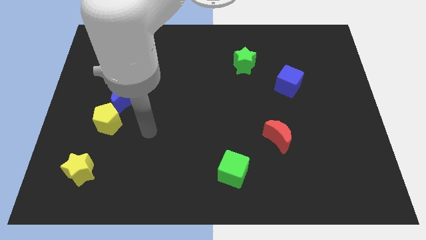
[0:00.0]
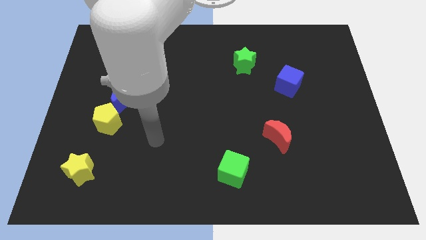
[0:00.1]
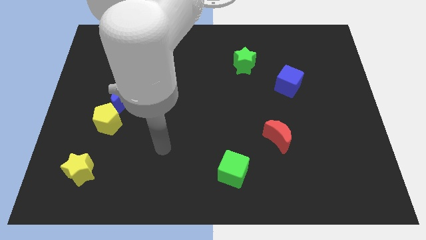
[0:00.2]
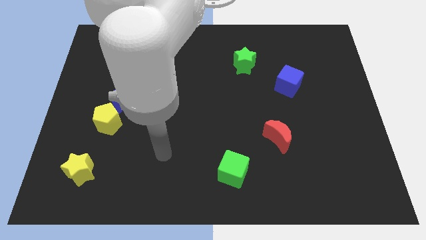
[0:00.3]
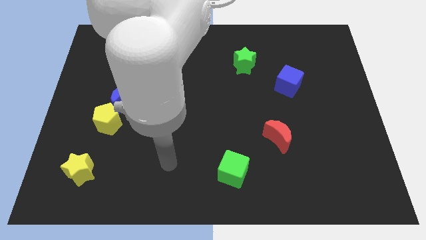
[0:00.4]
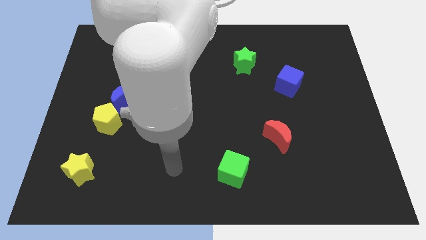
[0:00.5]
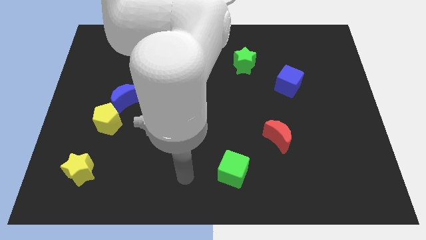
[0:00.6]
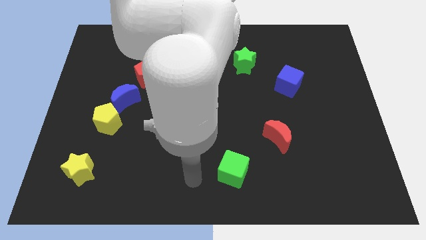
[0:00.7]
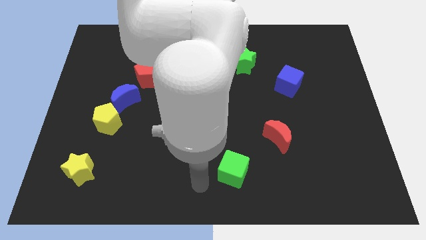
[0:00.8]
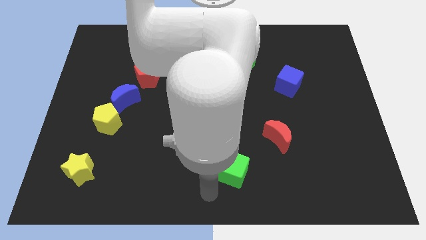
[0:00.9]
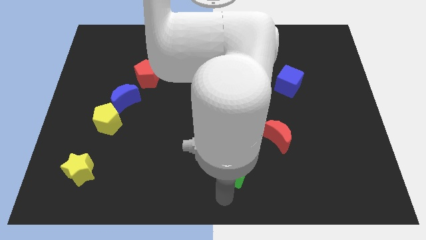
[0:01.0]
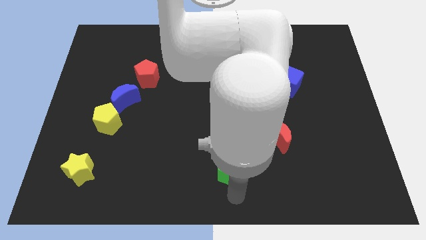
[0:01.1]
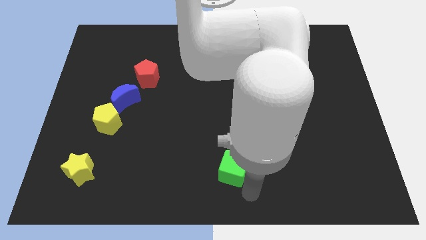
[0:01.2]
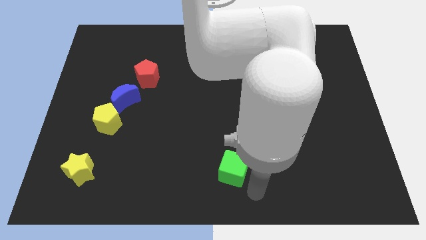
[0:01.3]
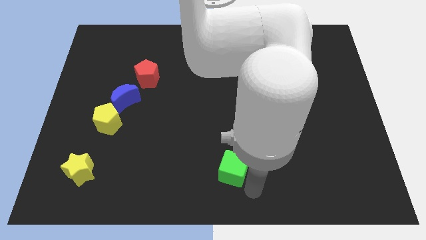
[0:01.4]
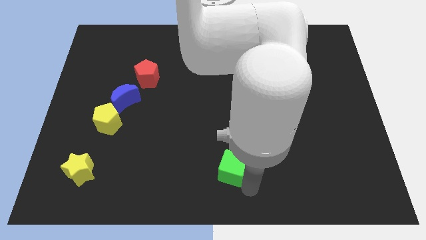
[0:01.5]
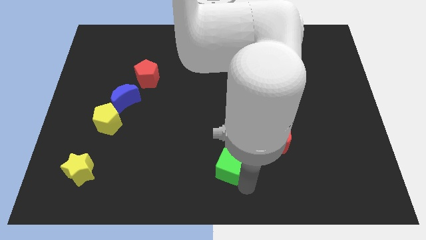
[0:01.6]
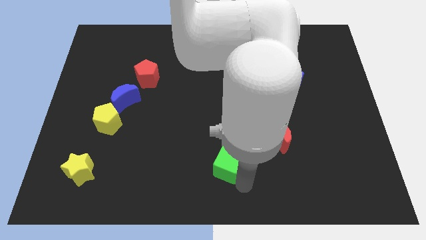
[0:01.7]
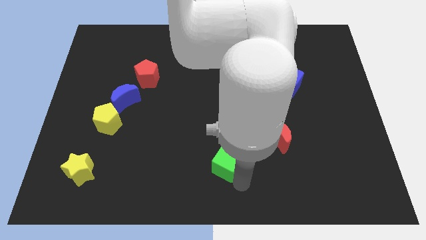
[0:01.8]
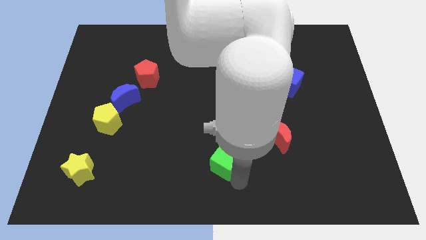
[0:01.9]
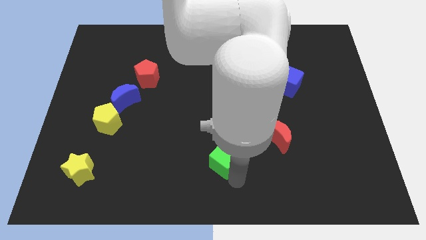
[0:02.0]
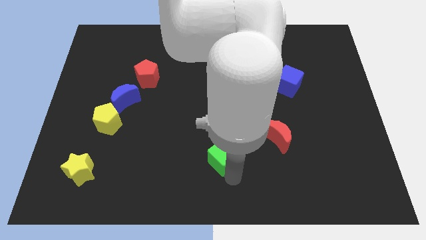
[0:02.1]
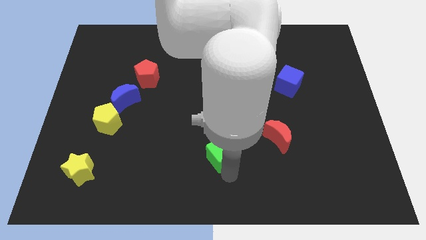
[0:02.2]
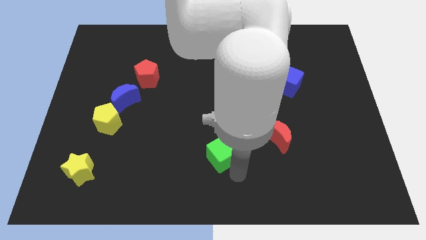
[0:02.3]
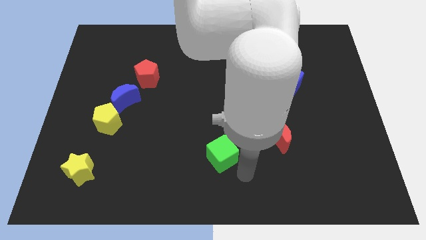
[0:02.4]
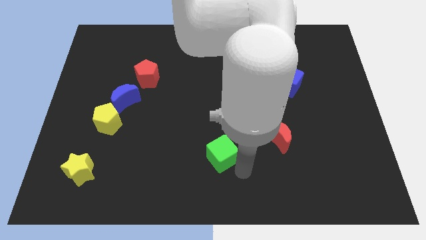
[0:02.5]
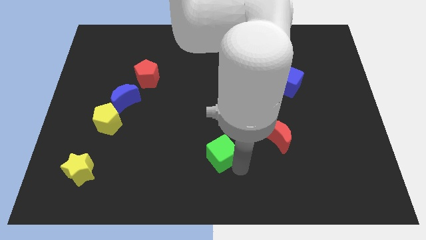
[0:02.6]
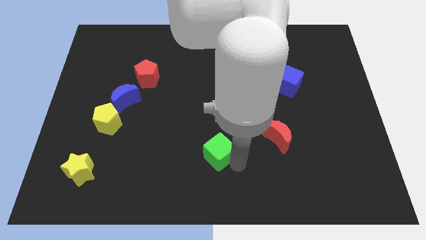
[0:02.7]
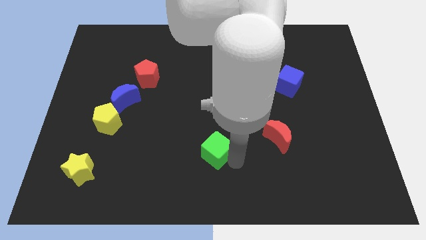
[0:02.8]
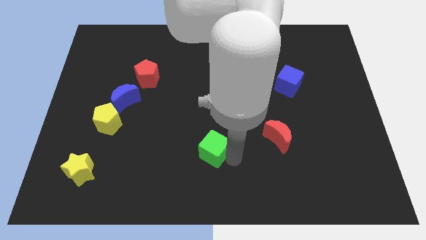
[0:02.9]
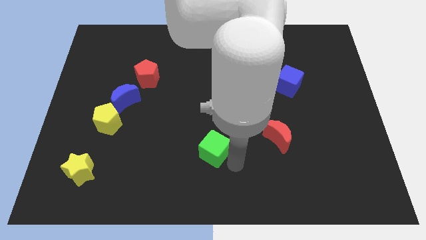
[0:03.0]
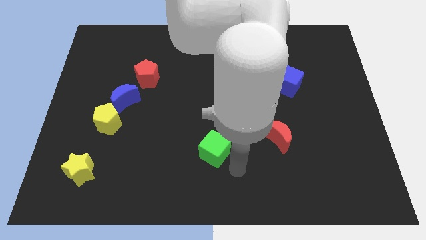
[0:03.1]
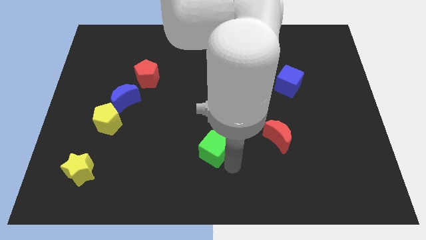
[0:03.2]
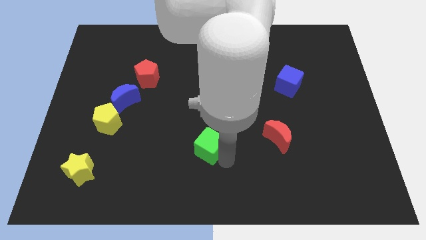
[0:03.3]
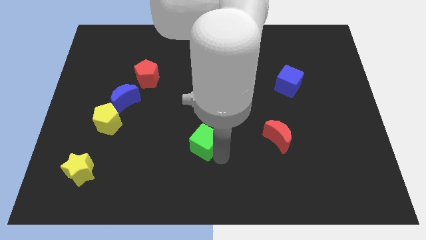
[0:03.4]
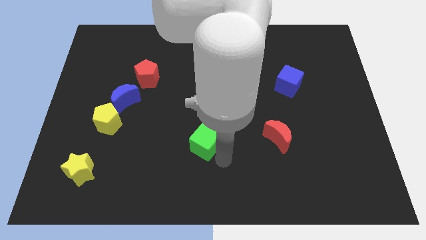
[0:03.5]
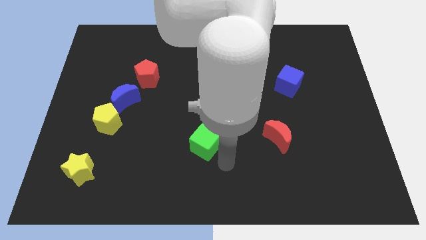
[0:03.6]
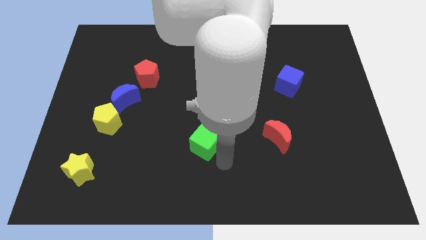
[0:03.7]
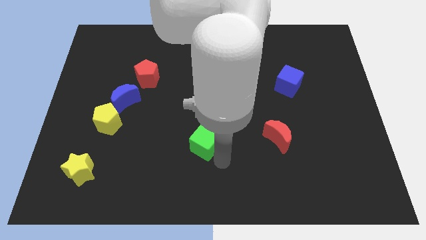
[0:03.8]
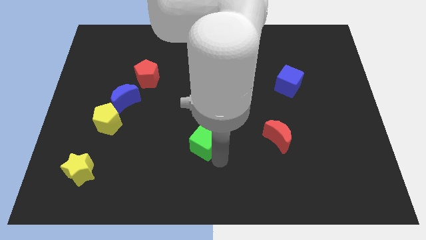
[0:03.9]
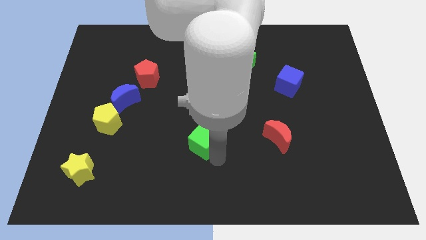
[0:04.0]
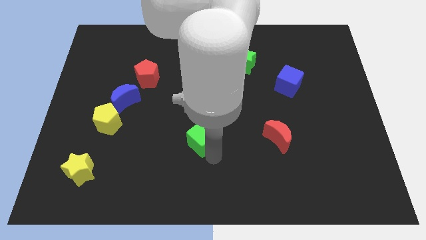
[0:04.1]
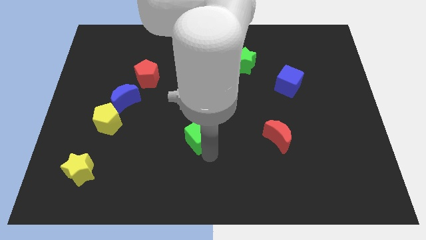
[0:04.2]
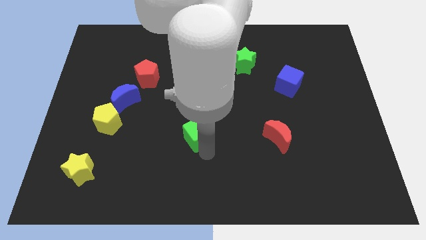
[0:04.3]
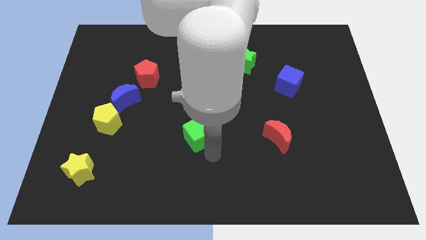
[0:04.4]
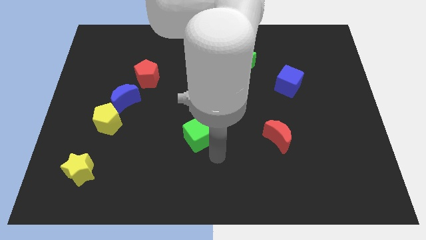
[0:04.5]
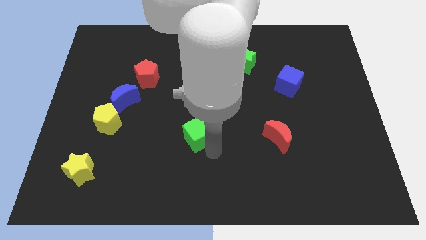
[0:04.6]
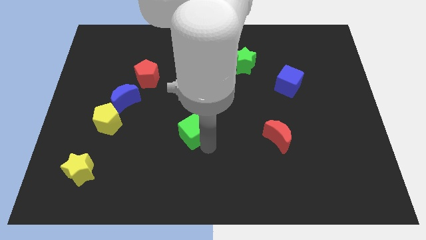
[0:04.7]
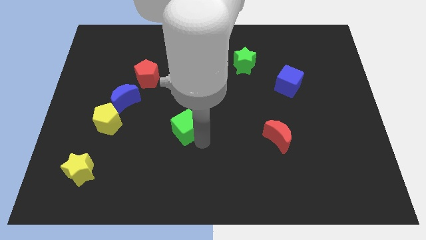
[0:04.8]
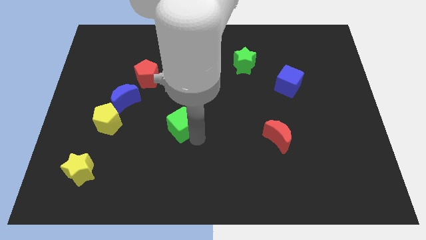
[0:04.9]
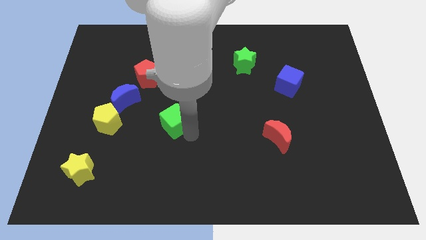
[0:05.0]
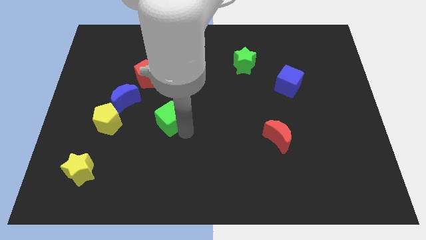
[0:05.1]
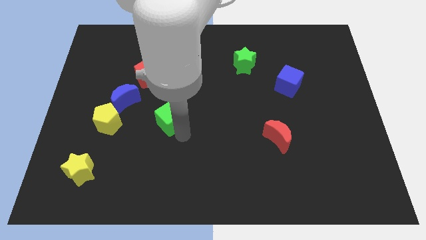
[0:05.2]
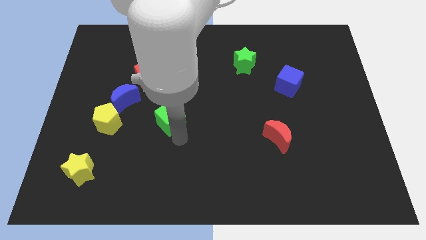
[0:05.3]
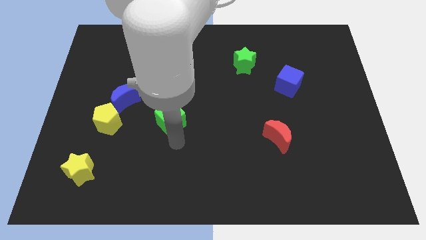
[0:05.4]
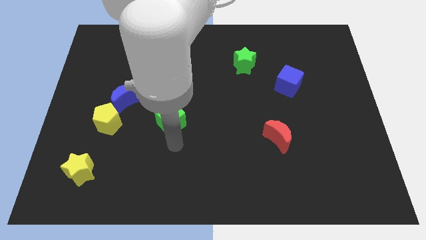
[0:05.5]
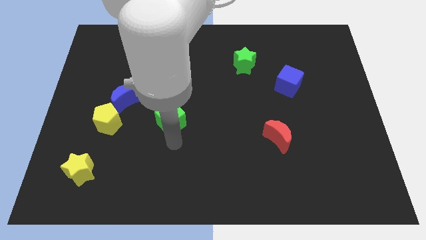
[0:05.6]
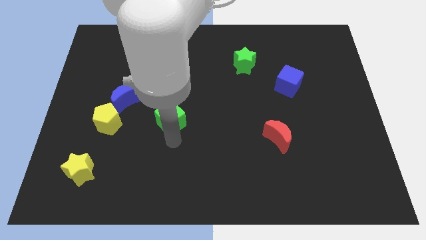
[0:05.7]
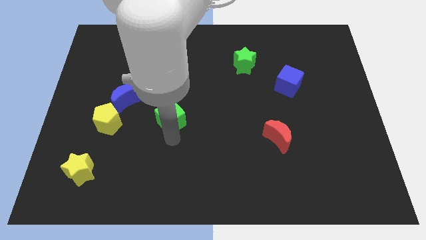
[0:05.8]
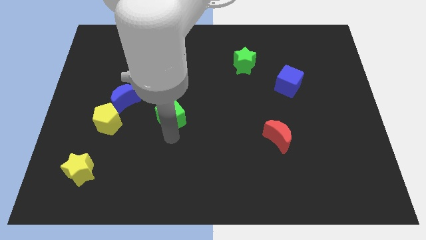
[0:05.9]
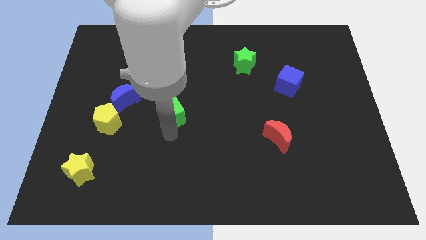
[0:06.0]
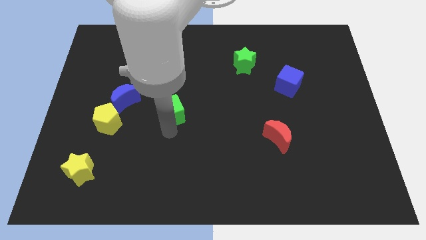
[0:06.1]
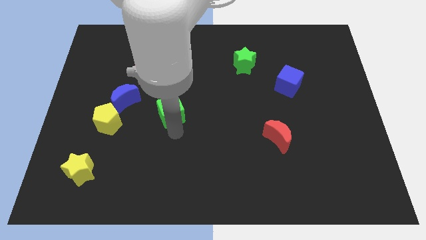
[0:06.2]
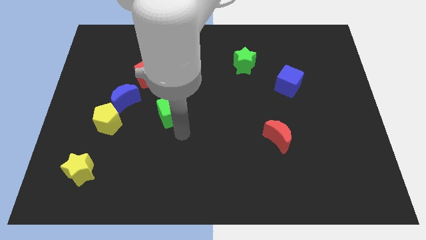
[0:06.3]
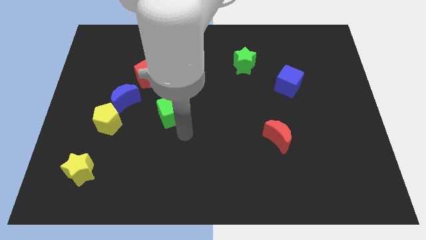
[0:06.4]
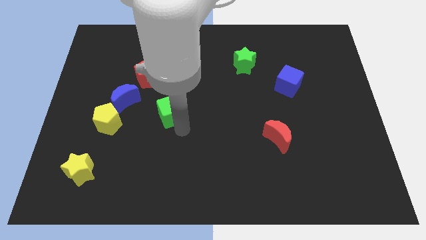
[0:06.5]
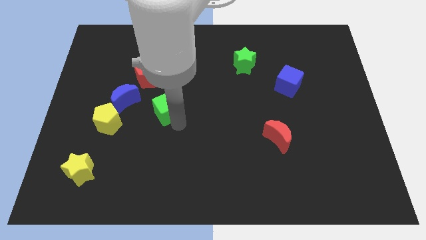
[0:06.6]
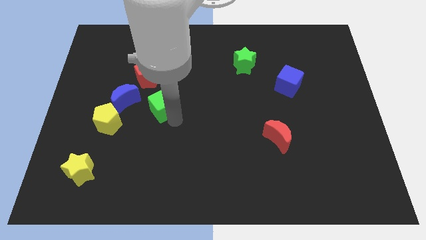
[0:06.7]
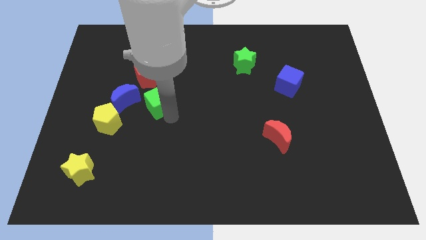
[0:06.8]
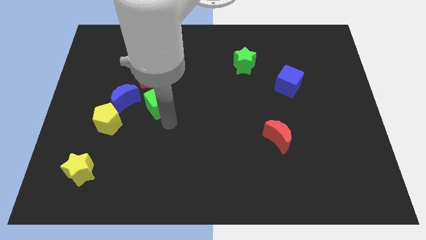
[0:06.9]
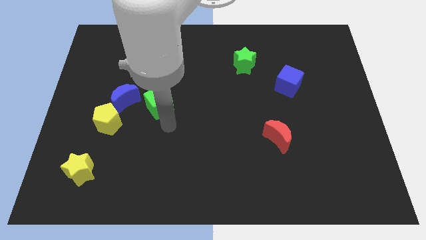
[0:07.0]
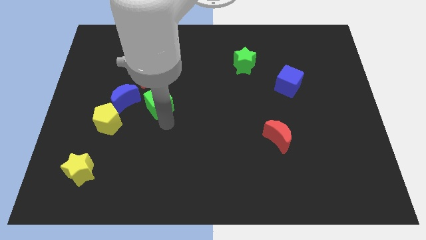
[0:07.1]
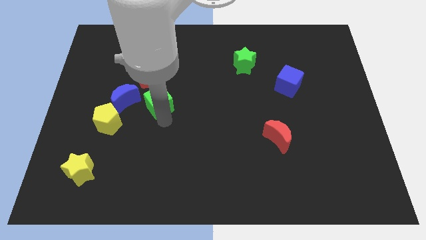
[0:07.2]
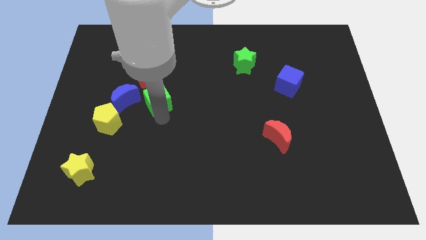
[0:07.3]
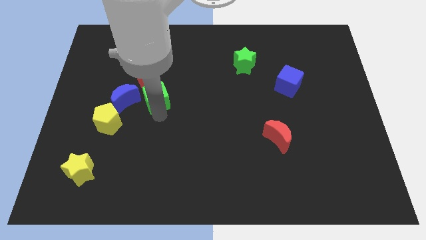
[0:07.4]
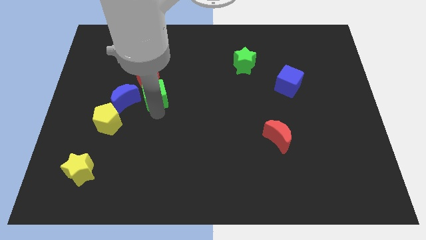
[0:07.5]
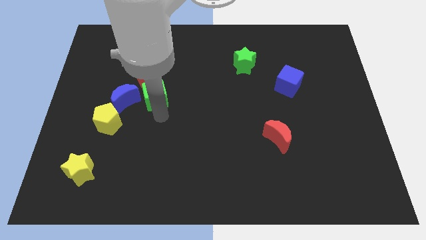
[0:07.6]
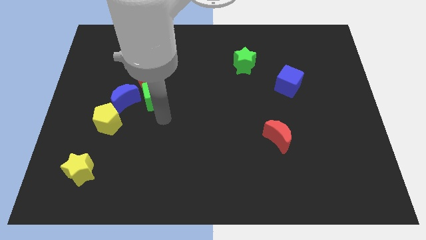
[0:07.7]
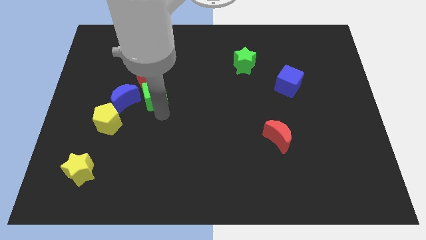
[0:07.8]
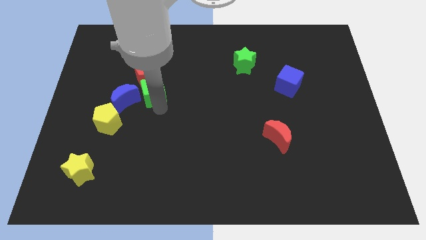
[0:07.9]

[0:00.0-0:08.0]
put the green cube next to the red pentagon
